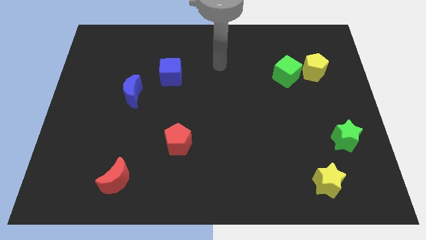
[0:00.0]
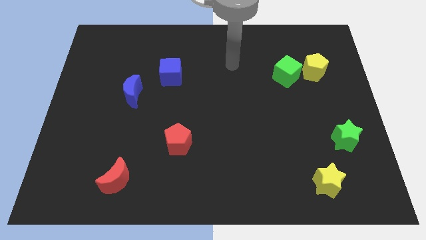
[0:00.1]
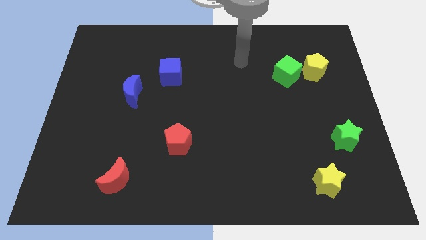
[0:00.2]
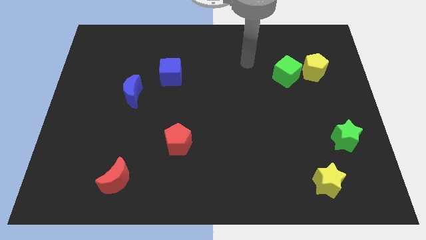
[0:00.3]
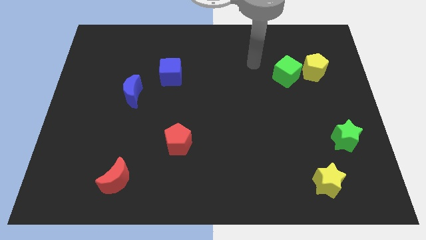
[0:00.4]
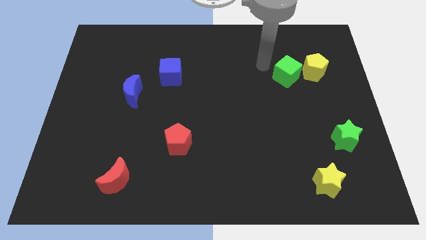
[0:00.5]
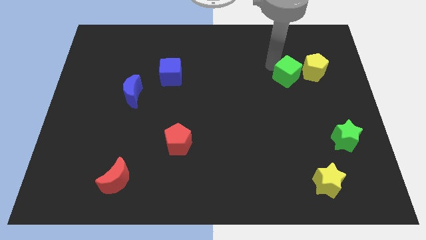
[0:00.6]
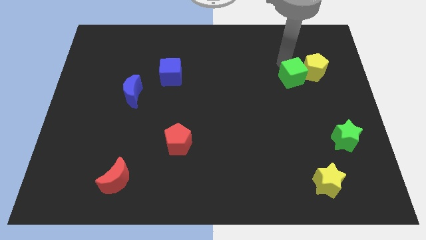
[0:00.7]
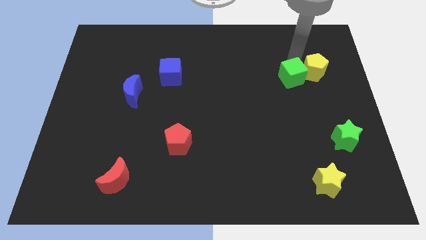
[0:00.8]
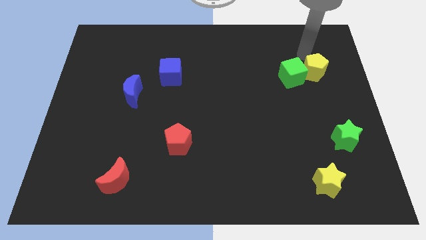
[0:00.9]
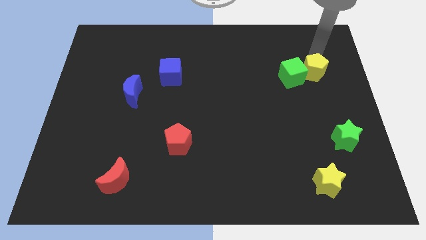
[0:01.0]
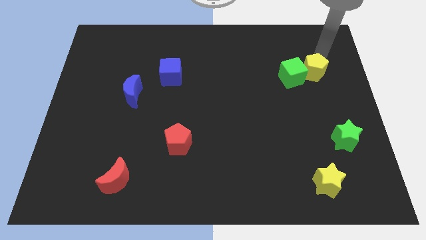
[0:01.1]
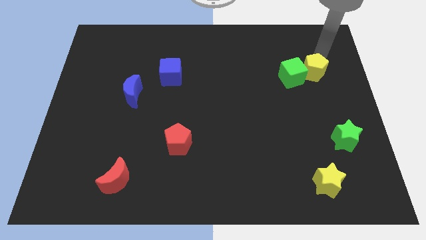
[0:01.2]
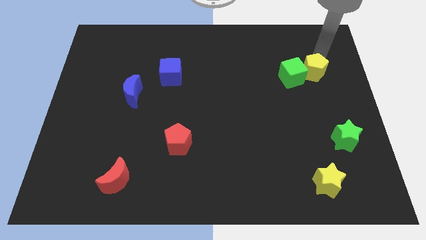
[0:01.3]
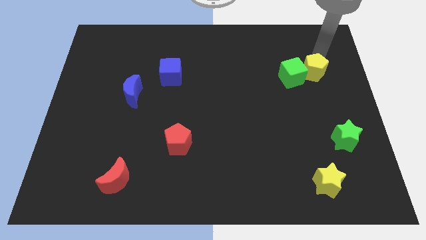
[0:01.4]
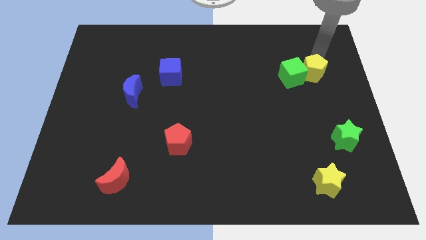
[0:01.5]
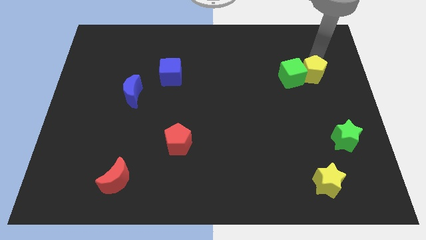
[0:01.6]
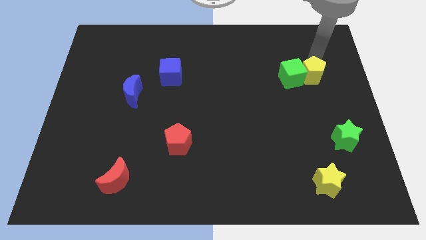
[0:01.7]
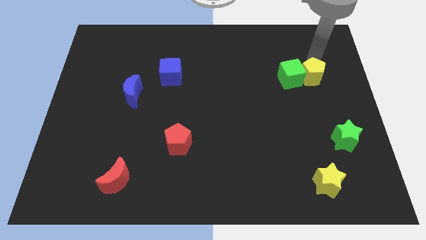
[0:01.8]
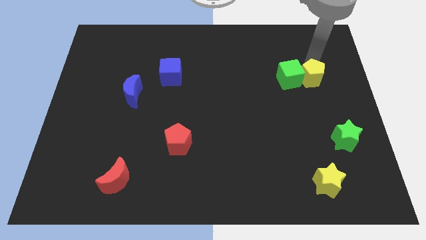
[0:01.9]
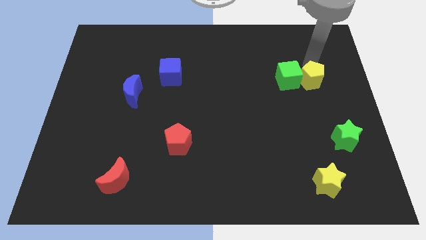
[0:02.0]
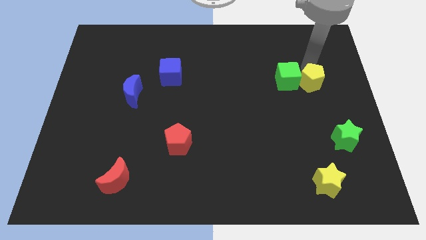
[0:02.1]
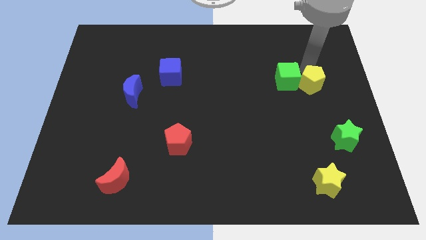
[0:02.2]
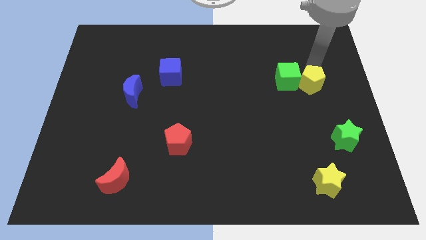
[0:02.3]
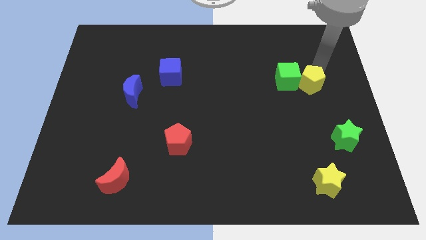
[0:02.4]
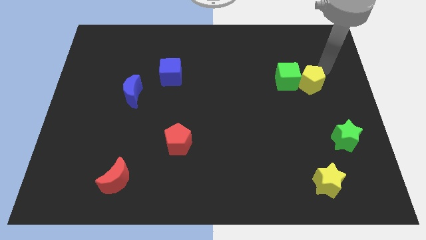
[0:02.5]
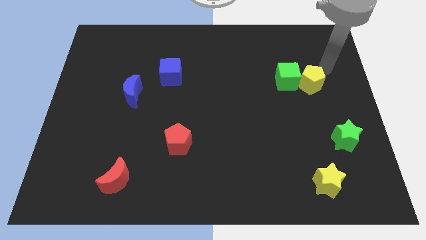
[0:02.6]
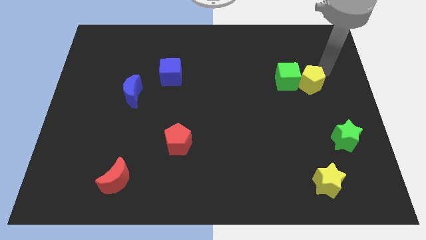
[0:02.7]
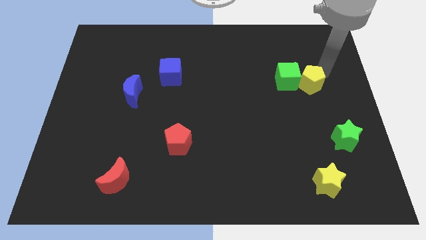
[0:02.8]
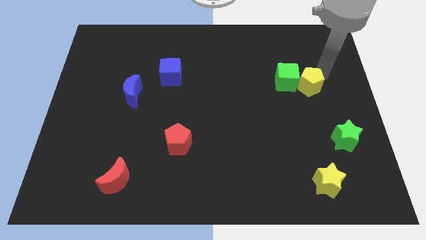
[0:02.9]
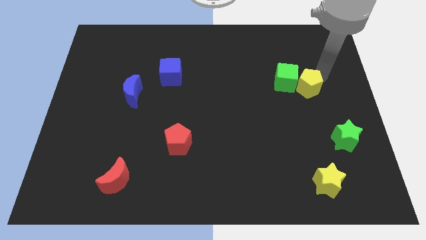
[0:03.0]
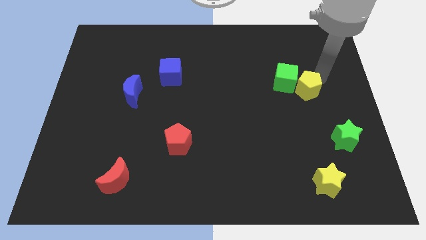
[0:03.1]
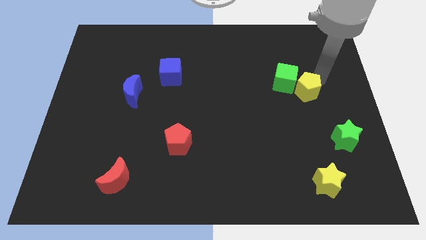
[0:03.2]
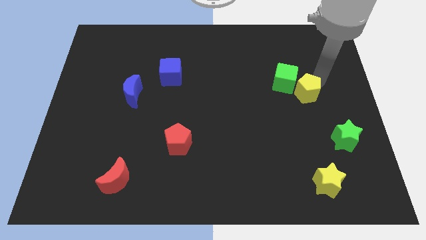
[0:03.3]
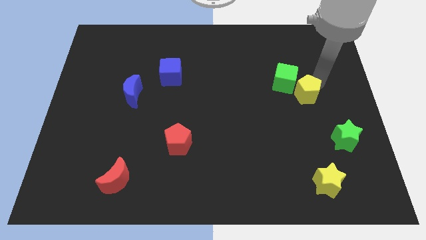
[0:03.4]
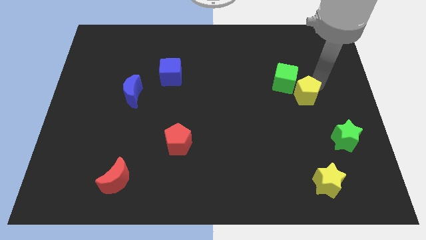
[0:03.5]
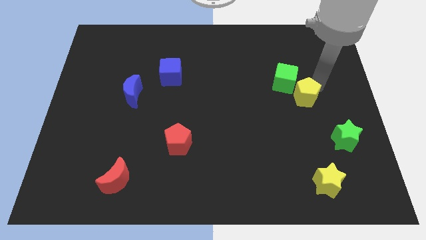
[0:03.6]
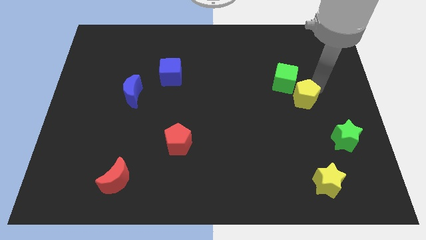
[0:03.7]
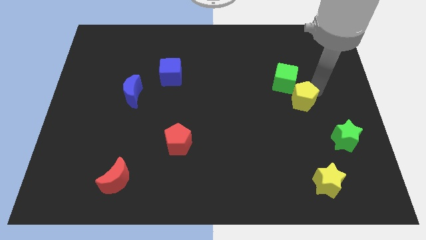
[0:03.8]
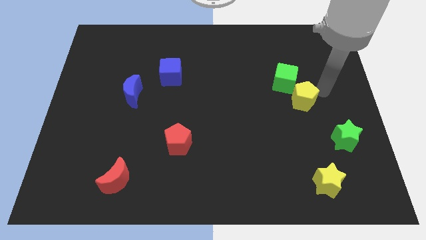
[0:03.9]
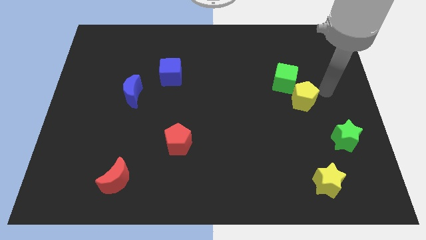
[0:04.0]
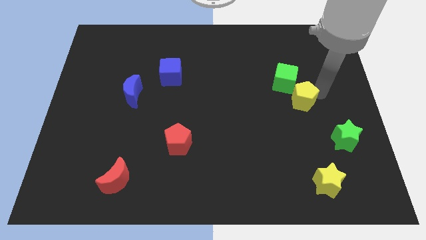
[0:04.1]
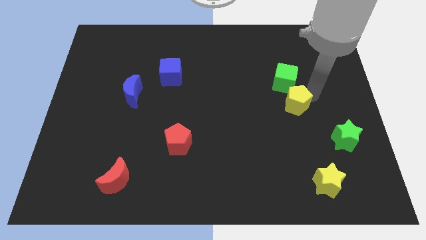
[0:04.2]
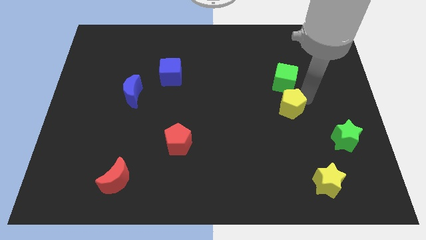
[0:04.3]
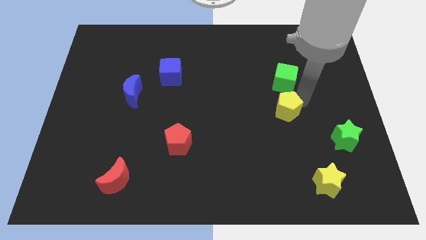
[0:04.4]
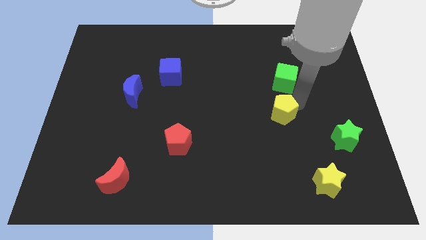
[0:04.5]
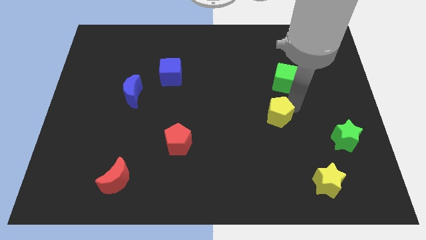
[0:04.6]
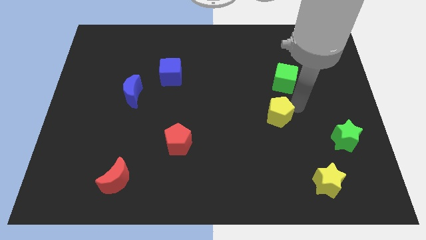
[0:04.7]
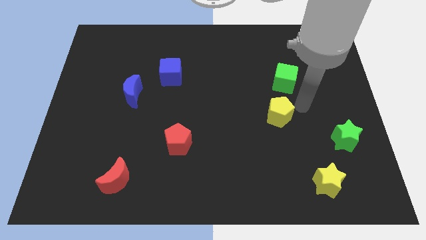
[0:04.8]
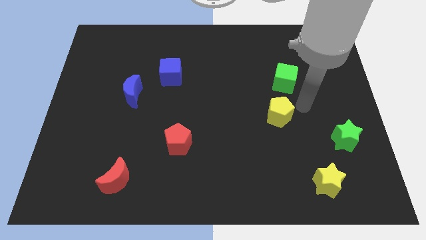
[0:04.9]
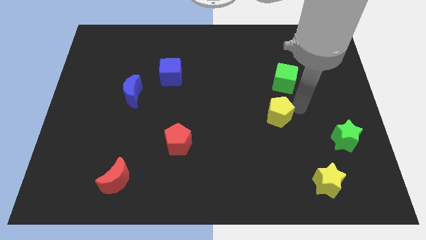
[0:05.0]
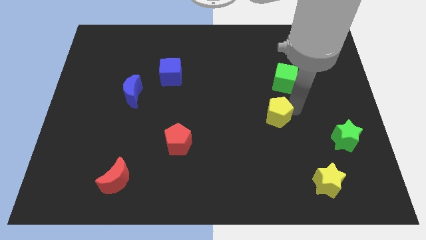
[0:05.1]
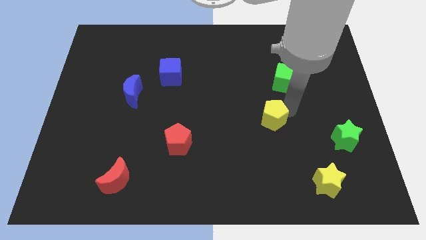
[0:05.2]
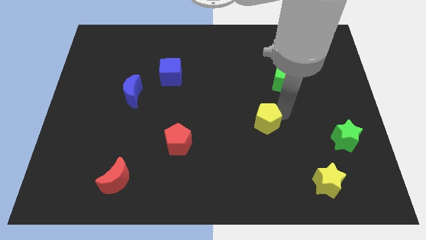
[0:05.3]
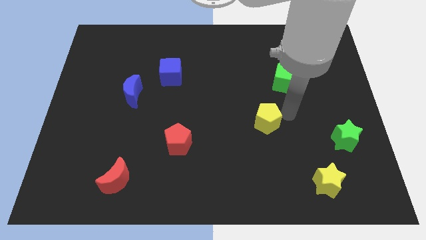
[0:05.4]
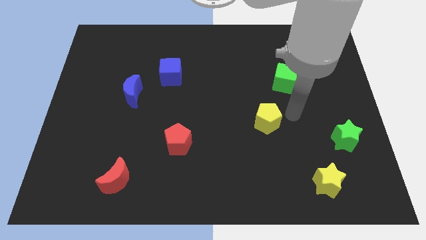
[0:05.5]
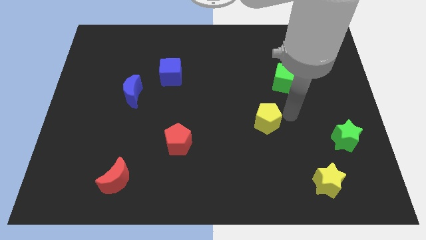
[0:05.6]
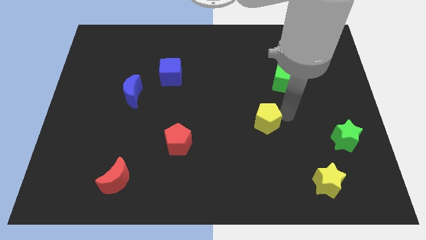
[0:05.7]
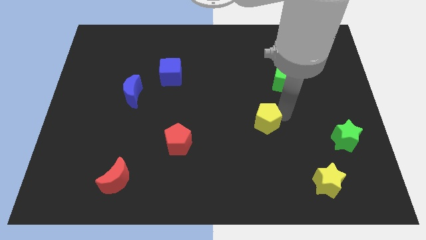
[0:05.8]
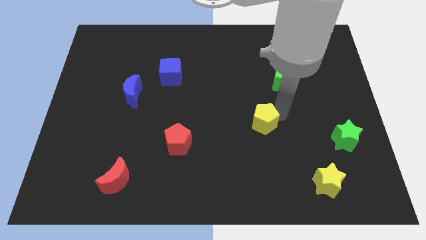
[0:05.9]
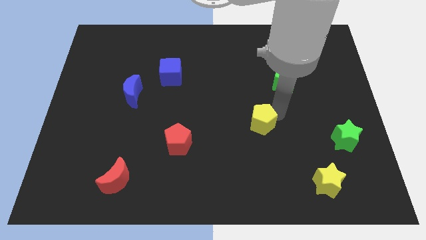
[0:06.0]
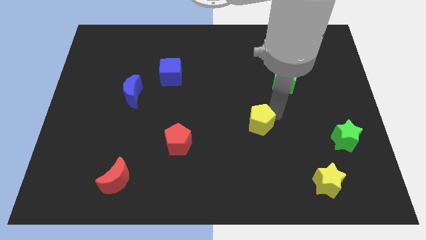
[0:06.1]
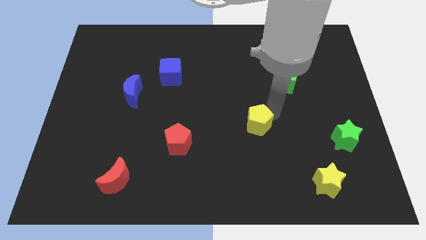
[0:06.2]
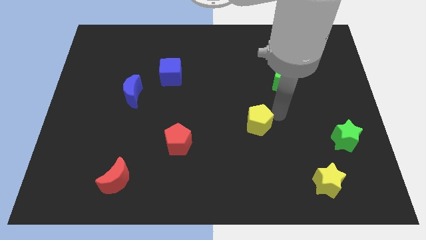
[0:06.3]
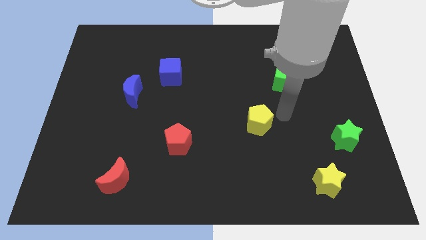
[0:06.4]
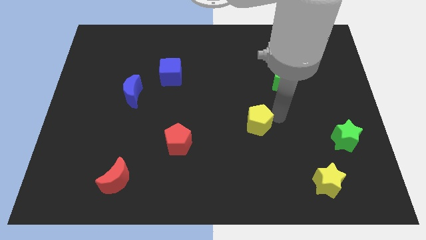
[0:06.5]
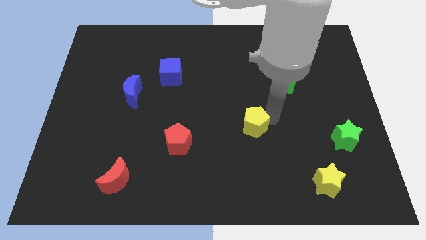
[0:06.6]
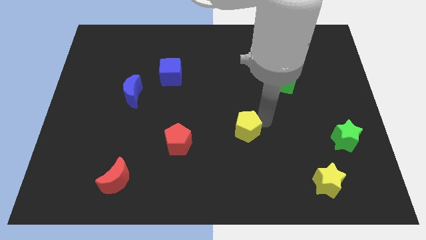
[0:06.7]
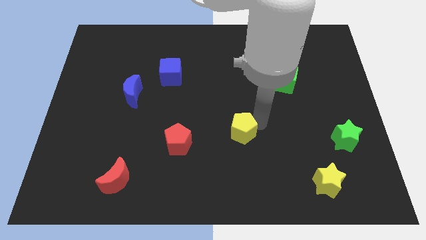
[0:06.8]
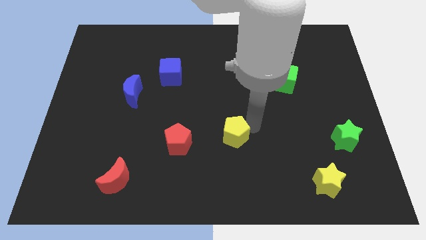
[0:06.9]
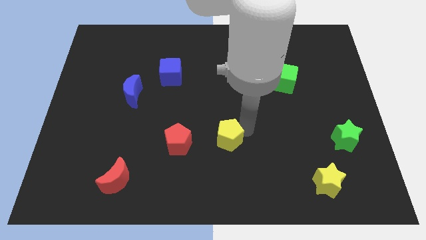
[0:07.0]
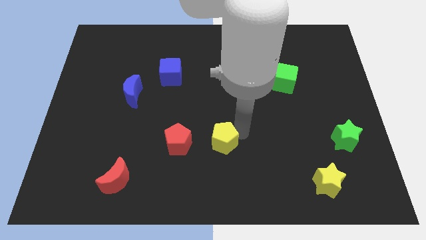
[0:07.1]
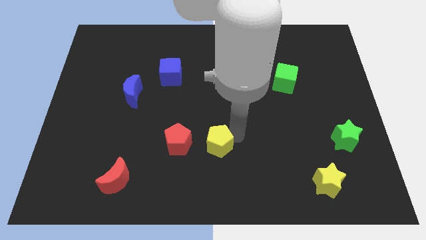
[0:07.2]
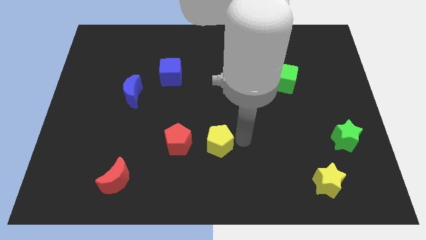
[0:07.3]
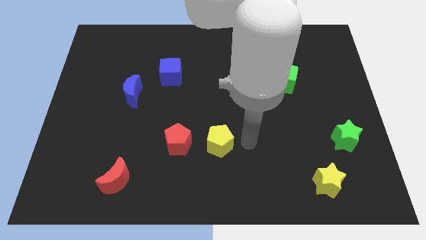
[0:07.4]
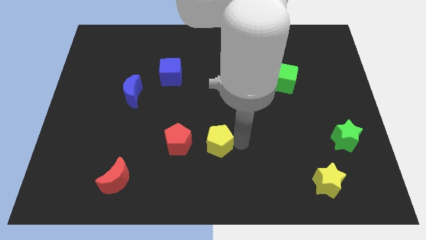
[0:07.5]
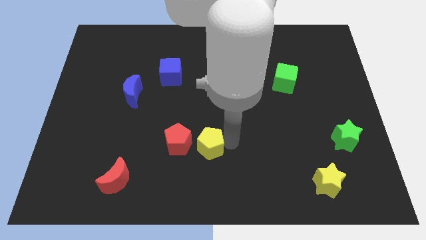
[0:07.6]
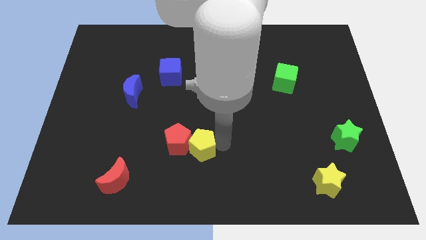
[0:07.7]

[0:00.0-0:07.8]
slide the yellow pentagon close to the red pentagon

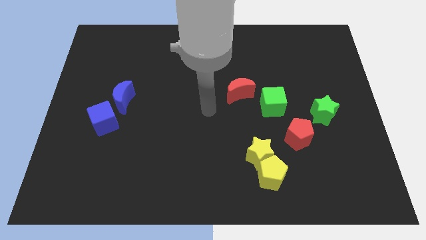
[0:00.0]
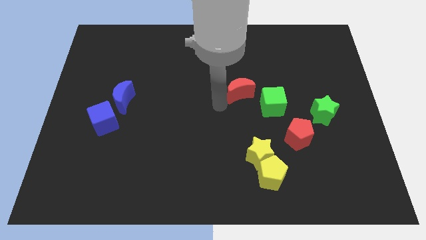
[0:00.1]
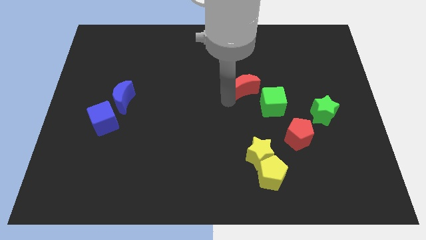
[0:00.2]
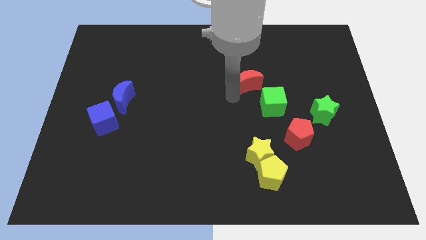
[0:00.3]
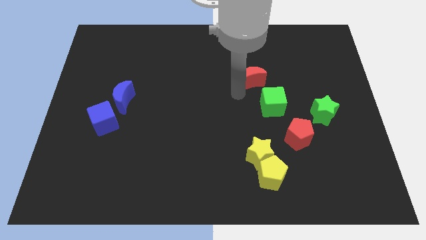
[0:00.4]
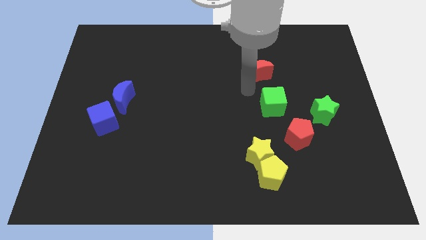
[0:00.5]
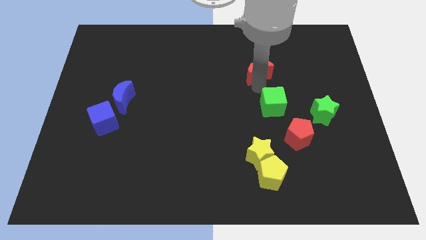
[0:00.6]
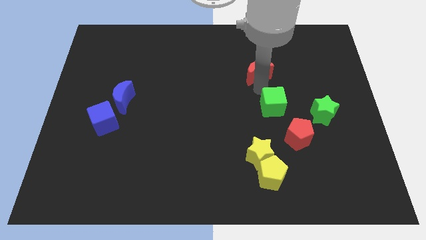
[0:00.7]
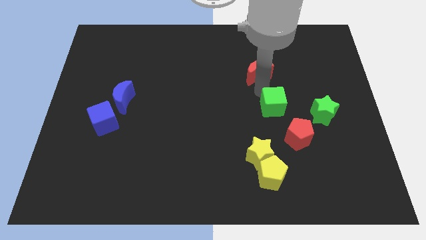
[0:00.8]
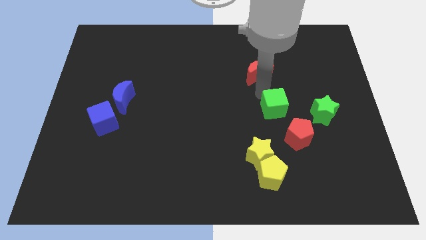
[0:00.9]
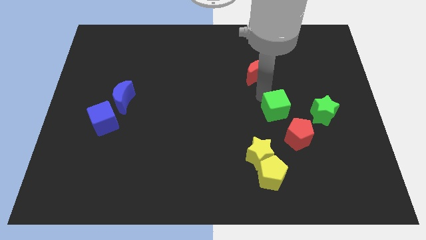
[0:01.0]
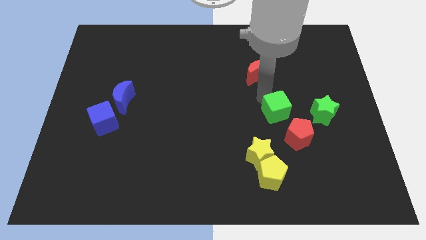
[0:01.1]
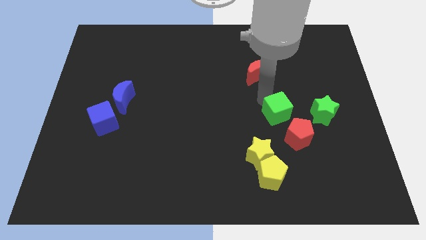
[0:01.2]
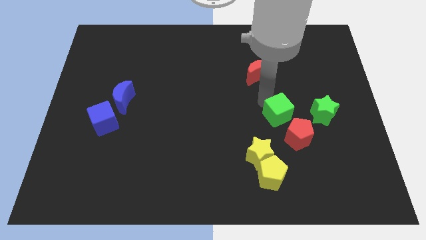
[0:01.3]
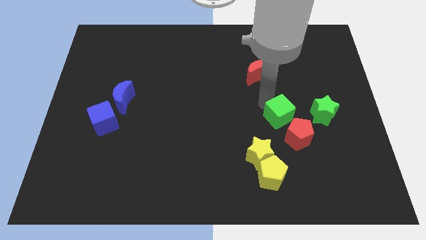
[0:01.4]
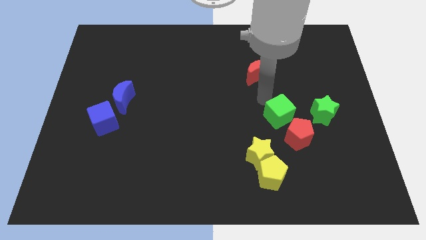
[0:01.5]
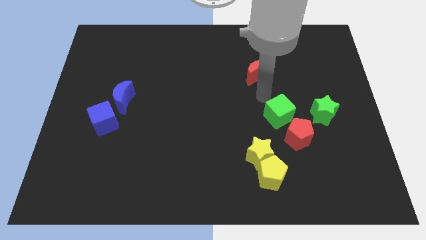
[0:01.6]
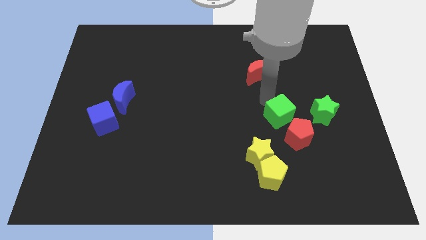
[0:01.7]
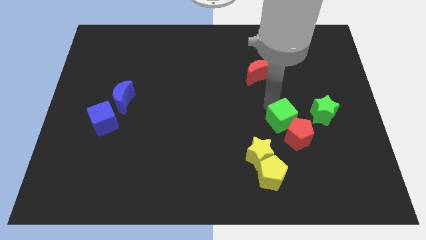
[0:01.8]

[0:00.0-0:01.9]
move the green cube towards the red pentagon
